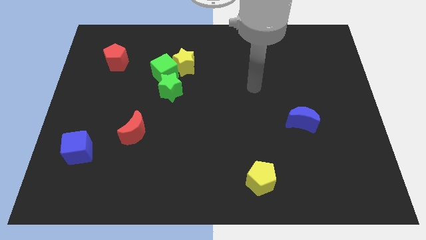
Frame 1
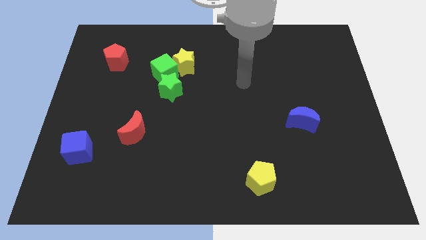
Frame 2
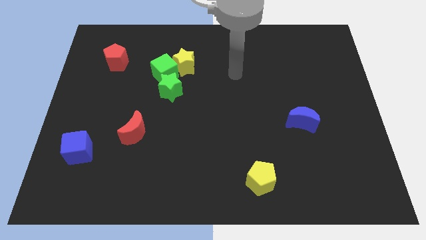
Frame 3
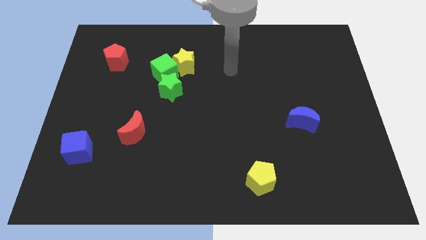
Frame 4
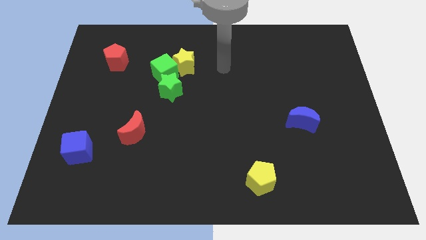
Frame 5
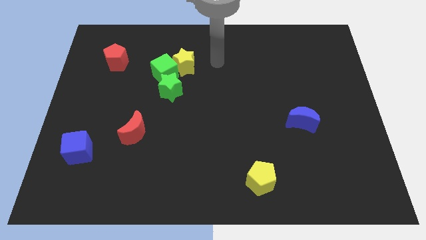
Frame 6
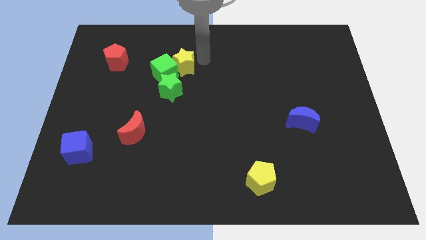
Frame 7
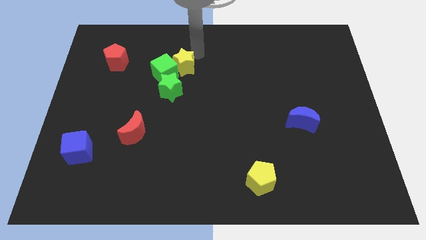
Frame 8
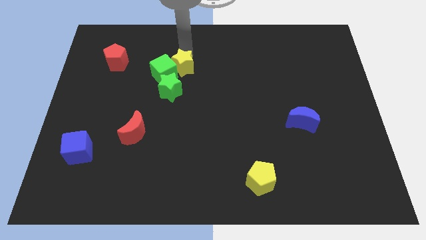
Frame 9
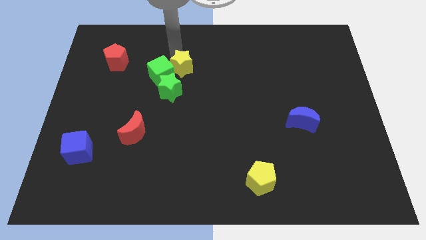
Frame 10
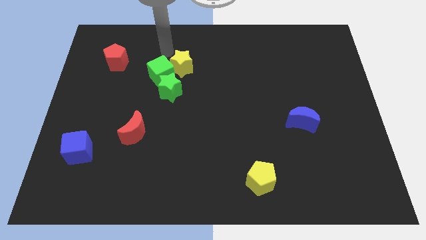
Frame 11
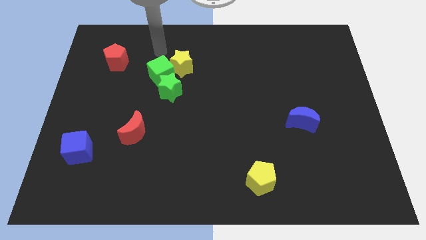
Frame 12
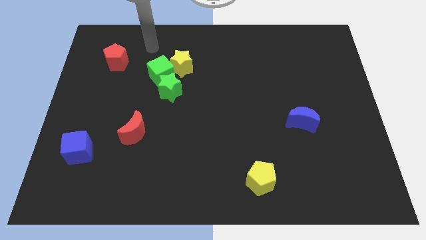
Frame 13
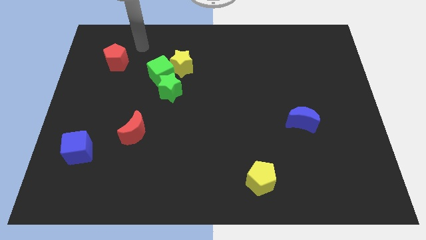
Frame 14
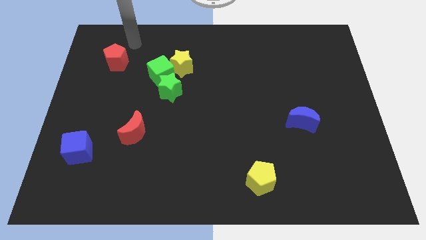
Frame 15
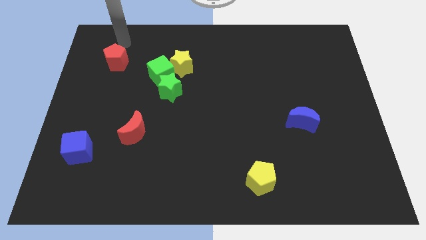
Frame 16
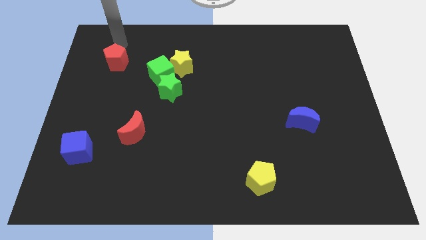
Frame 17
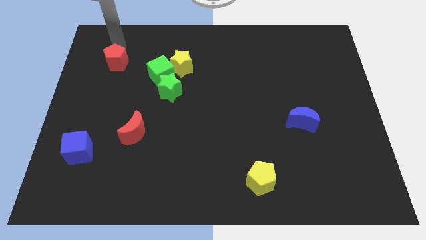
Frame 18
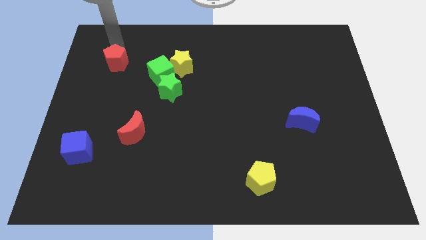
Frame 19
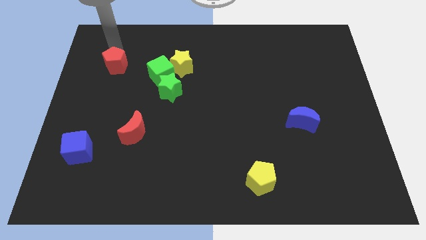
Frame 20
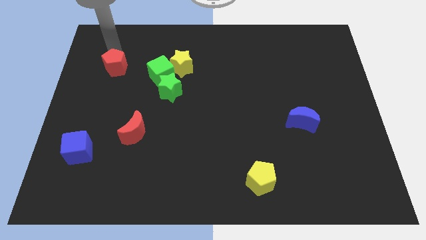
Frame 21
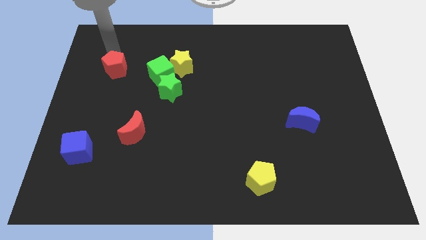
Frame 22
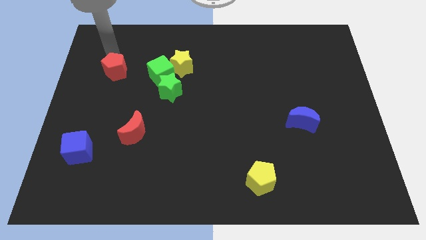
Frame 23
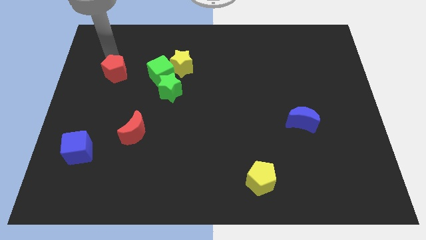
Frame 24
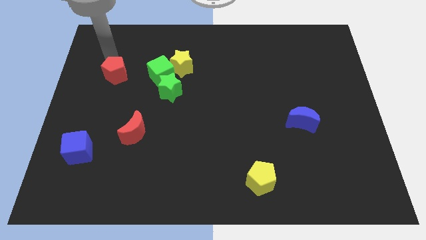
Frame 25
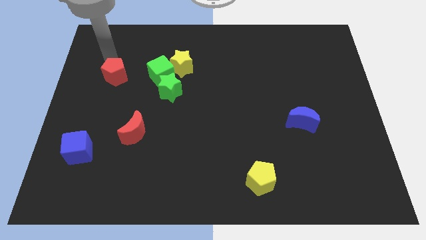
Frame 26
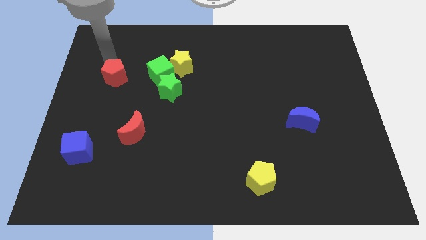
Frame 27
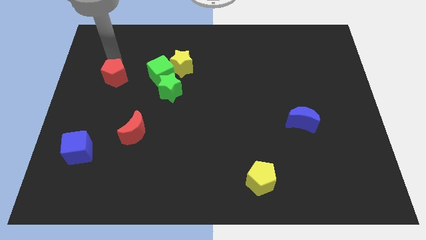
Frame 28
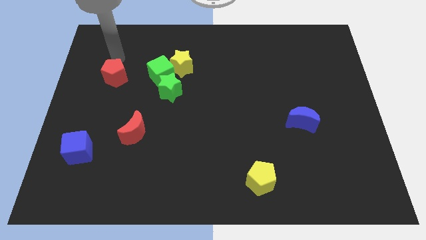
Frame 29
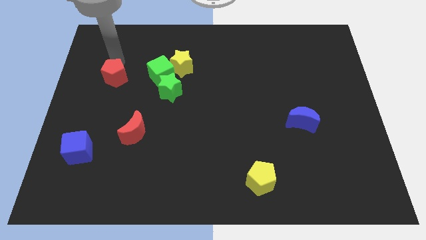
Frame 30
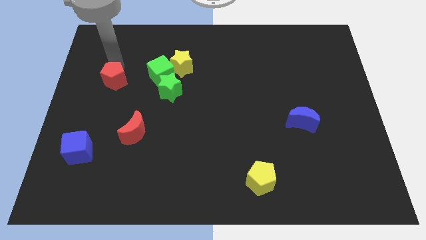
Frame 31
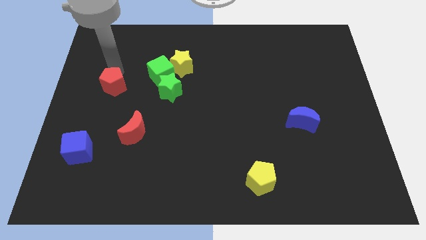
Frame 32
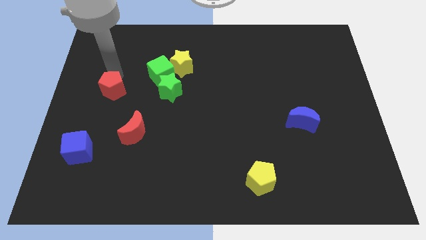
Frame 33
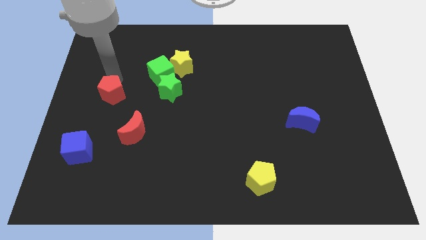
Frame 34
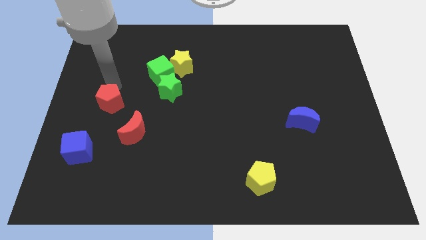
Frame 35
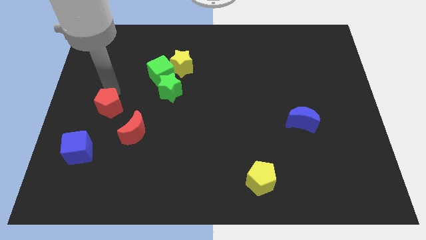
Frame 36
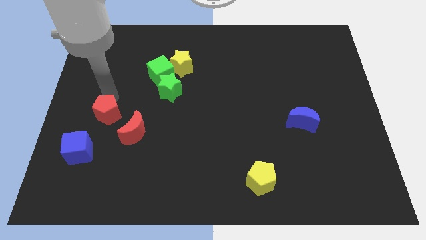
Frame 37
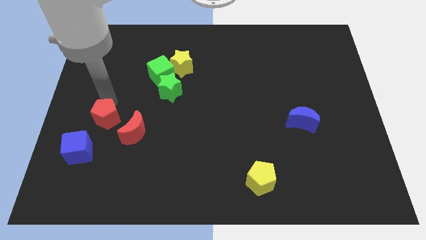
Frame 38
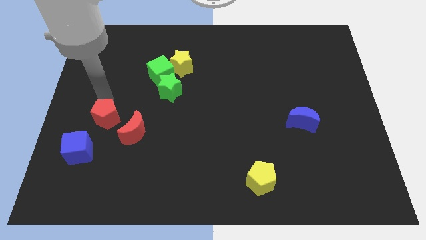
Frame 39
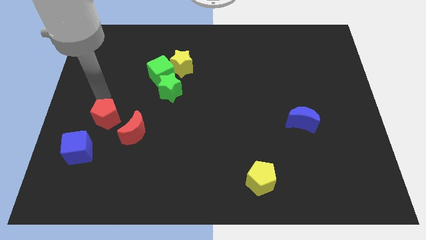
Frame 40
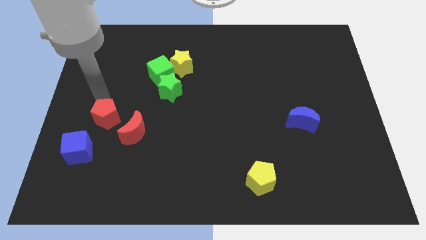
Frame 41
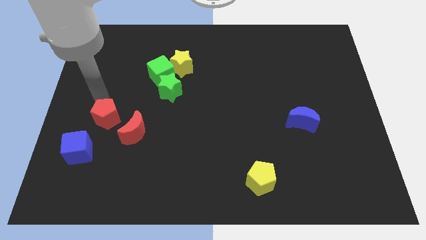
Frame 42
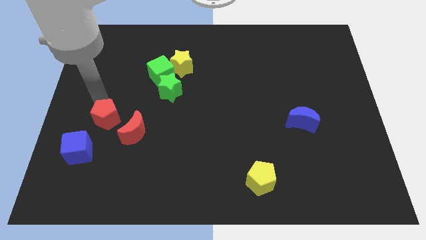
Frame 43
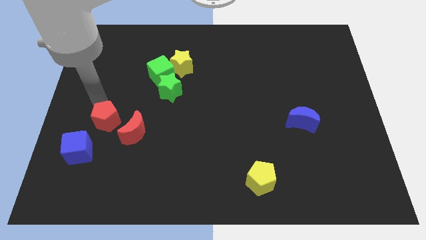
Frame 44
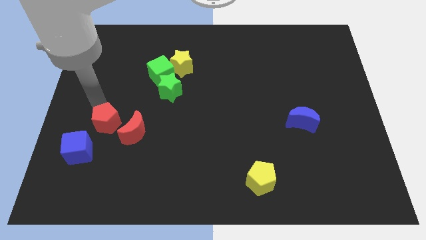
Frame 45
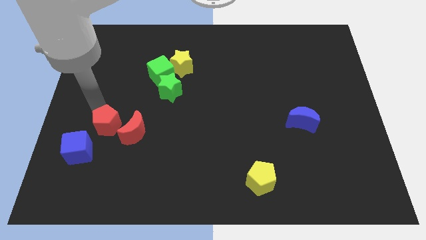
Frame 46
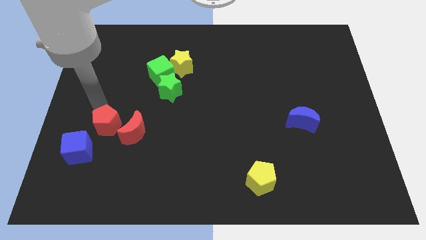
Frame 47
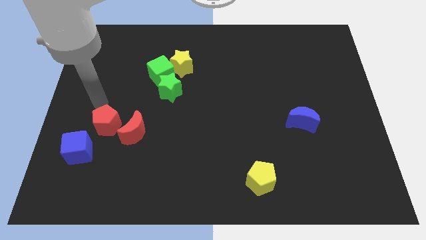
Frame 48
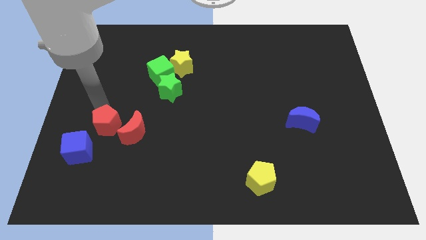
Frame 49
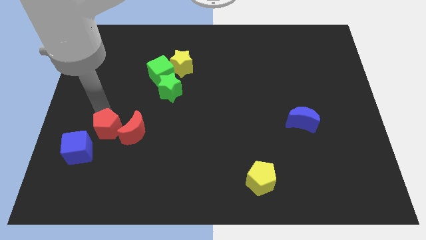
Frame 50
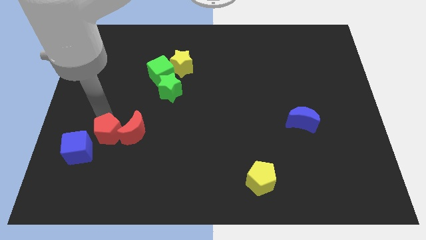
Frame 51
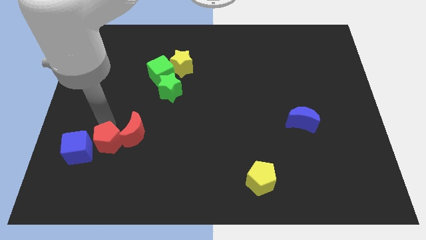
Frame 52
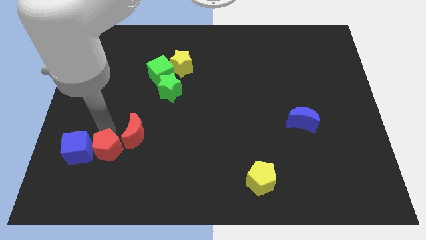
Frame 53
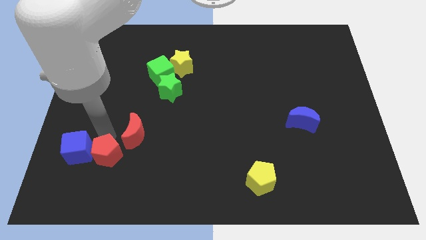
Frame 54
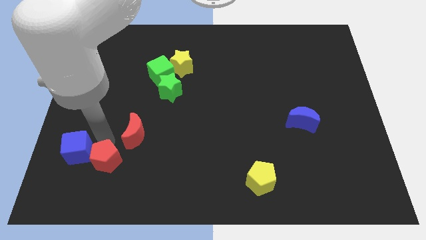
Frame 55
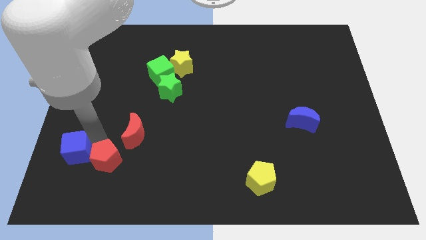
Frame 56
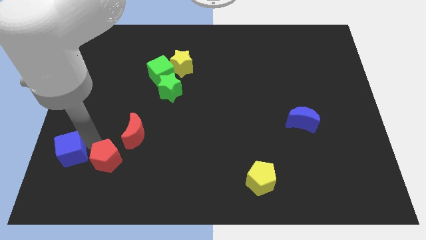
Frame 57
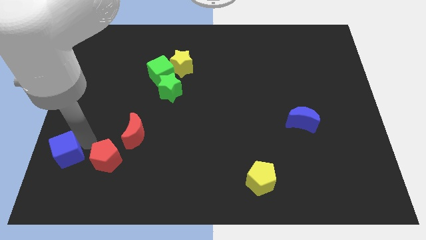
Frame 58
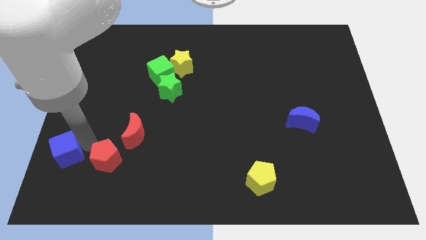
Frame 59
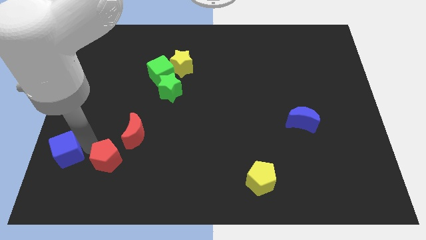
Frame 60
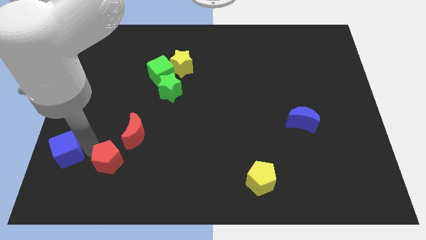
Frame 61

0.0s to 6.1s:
put the red pentagon to the bottom side of the red moon

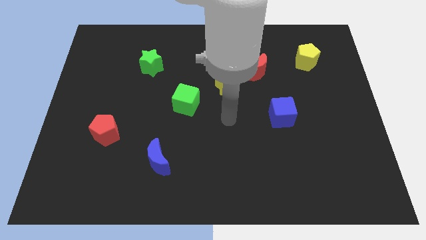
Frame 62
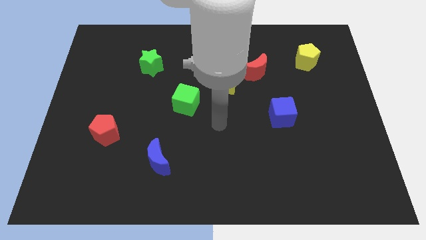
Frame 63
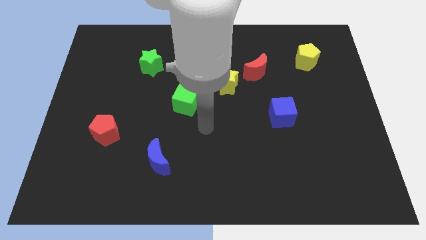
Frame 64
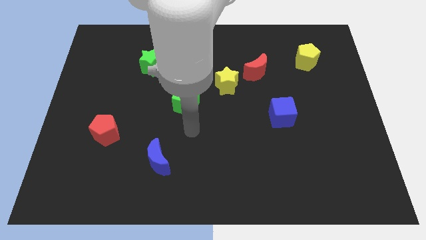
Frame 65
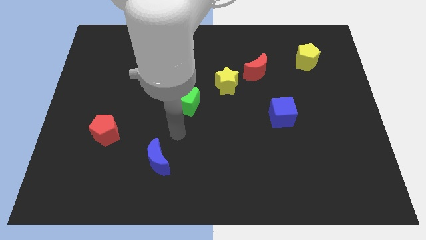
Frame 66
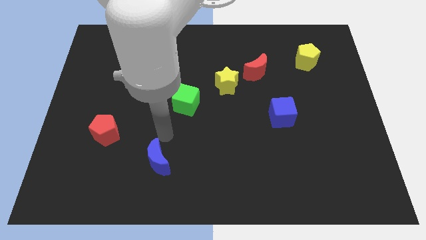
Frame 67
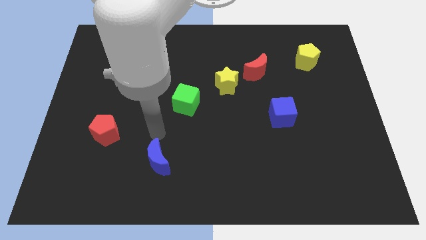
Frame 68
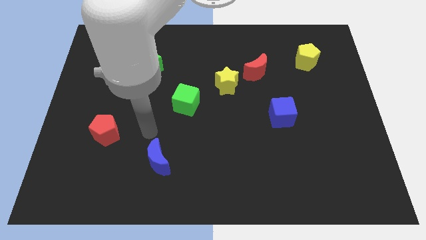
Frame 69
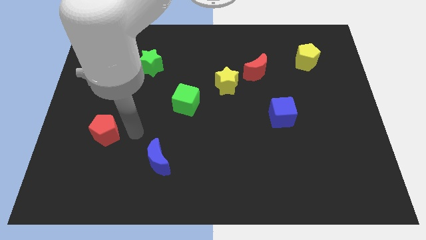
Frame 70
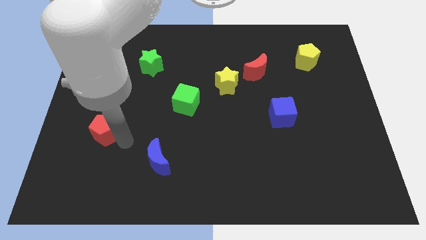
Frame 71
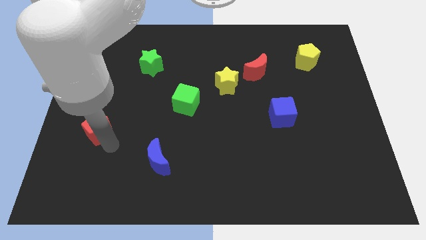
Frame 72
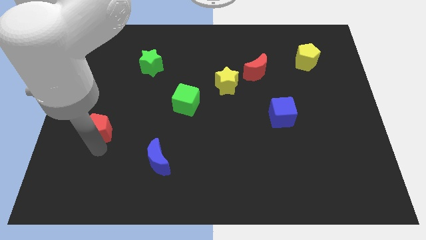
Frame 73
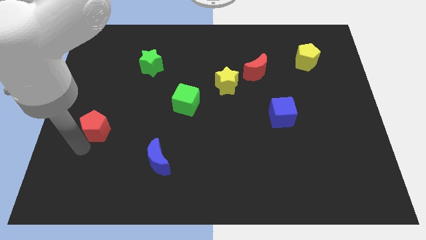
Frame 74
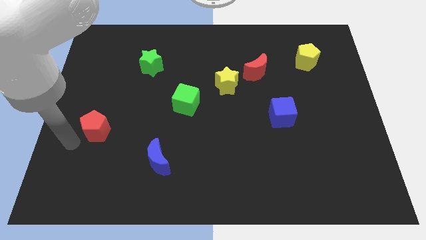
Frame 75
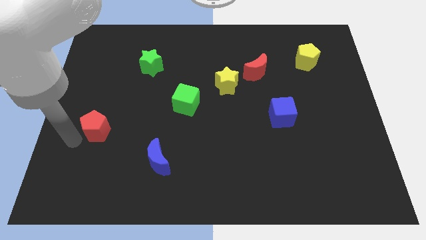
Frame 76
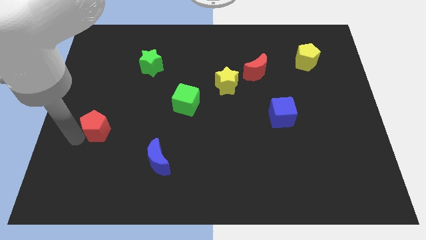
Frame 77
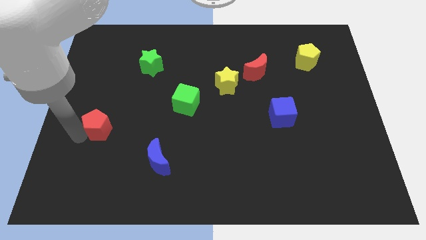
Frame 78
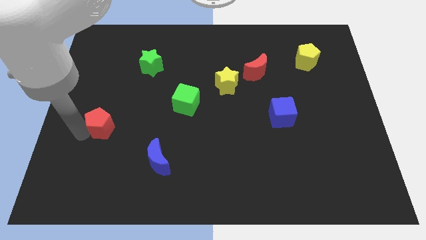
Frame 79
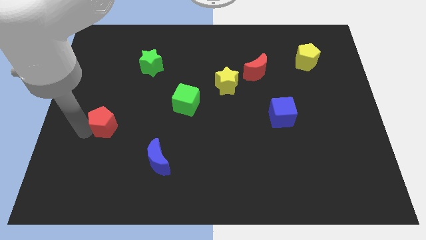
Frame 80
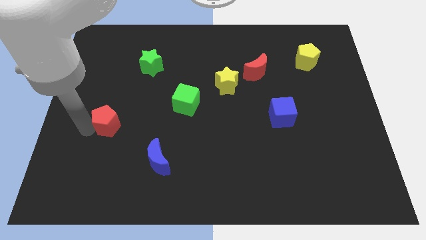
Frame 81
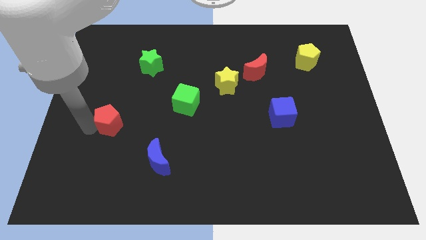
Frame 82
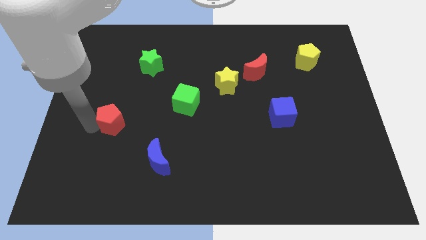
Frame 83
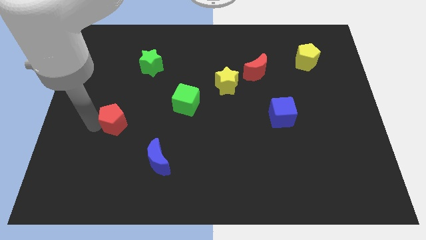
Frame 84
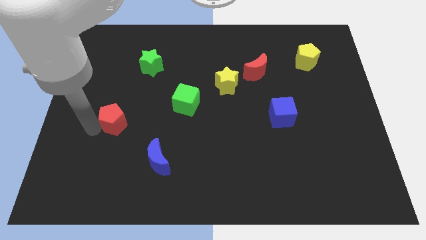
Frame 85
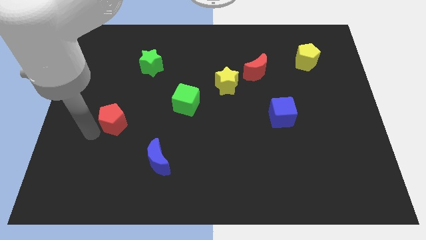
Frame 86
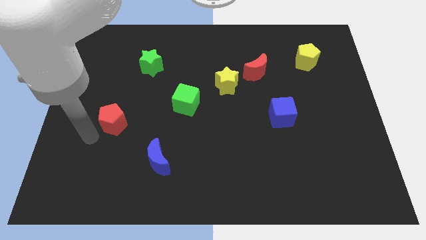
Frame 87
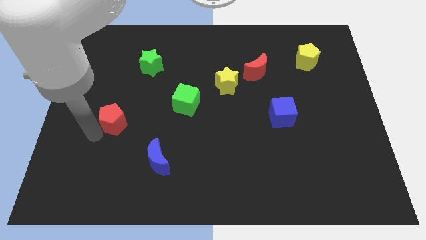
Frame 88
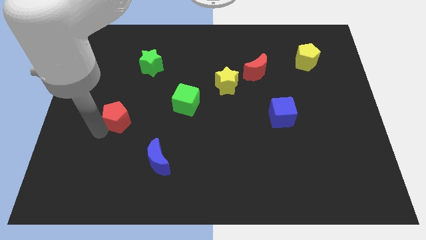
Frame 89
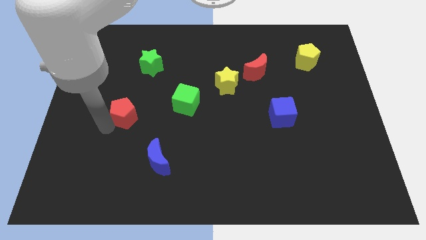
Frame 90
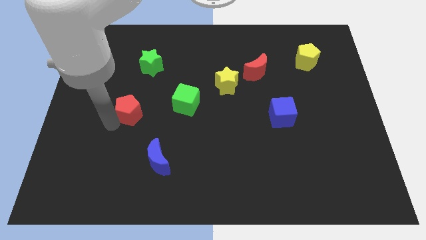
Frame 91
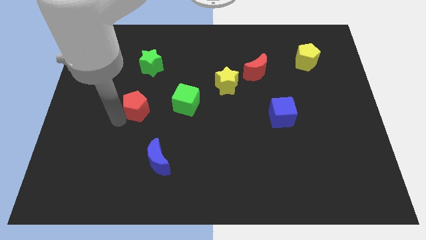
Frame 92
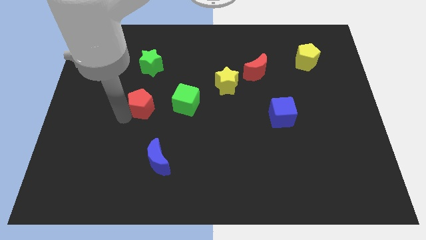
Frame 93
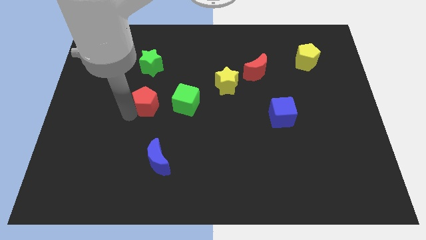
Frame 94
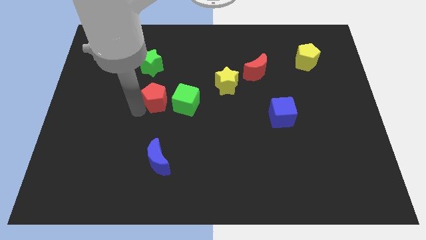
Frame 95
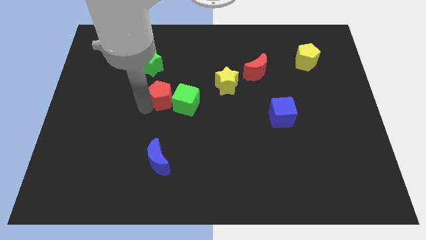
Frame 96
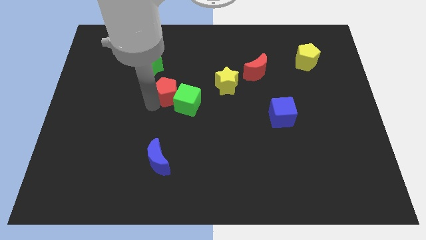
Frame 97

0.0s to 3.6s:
move the red pentagon diagonally down and to the right of the green star
